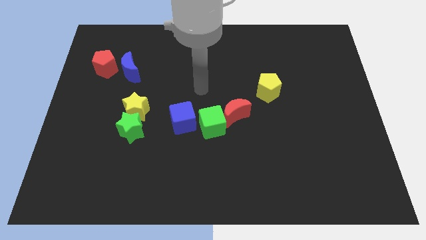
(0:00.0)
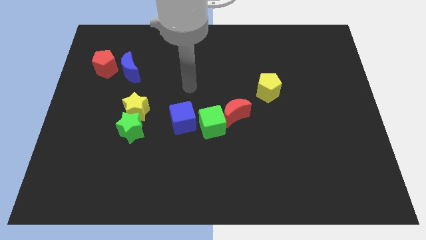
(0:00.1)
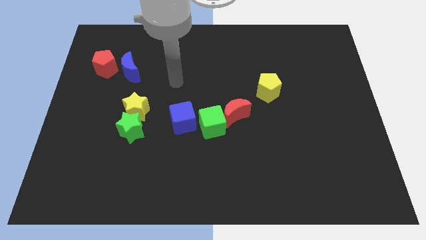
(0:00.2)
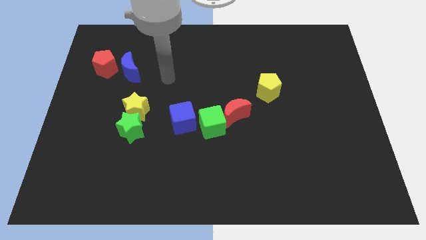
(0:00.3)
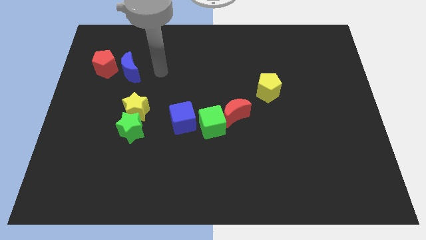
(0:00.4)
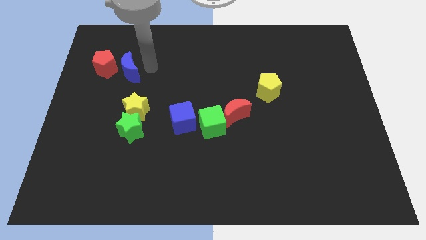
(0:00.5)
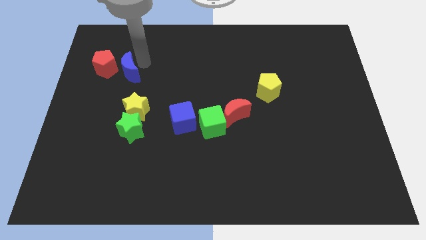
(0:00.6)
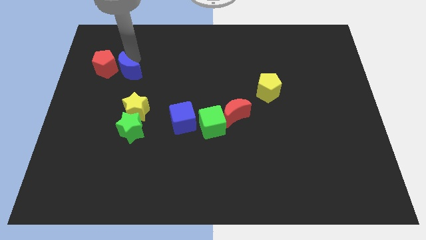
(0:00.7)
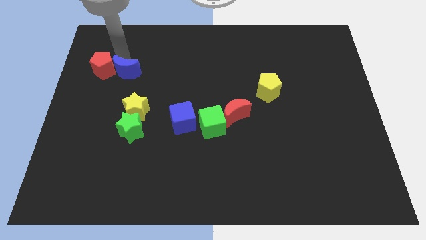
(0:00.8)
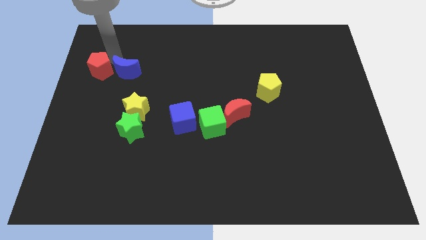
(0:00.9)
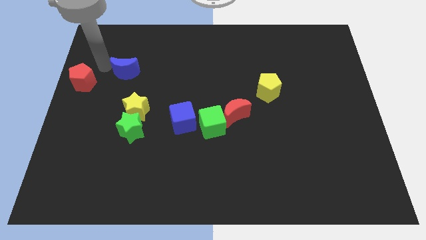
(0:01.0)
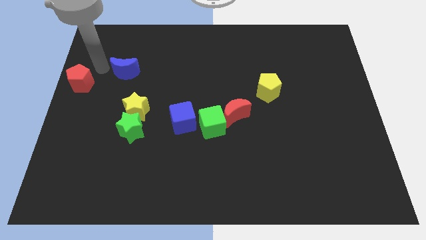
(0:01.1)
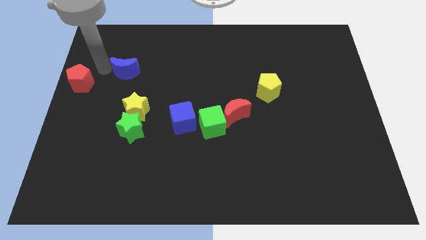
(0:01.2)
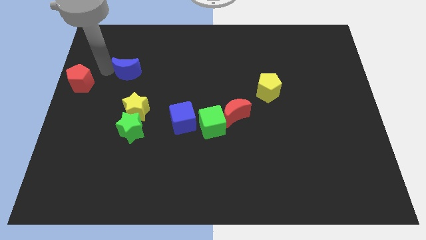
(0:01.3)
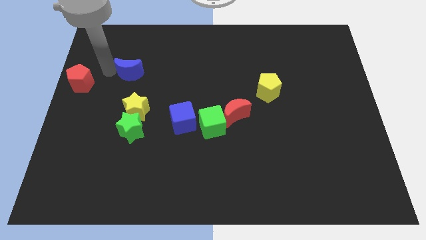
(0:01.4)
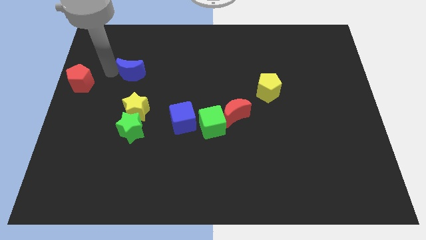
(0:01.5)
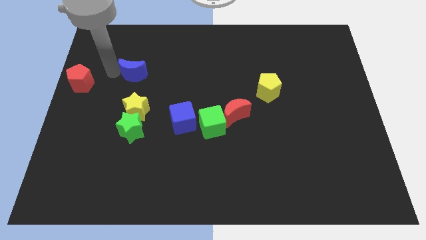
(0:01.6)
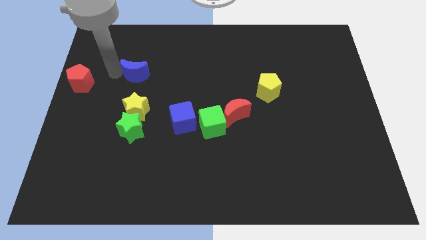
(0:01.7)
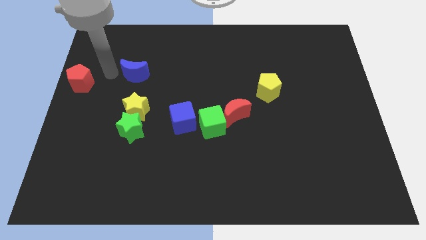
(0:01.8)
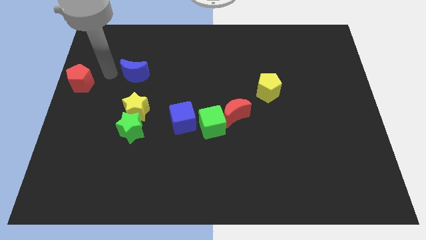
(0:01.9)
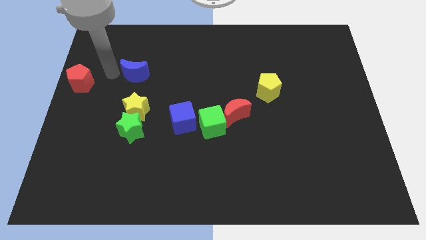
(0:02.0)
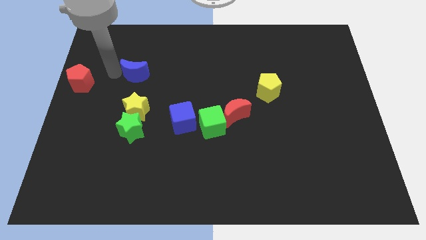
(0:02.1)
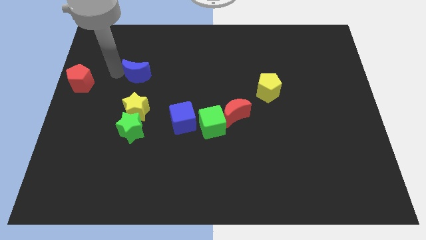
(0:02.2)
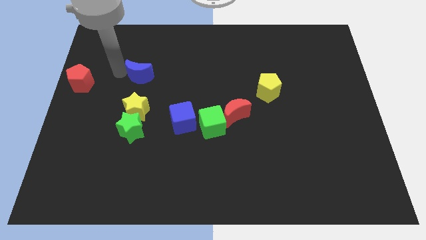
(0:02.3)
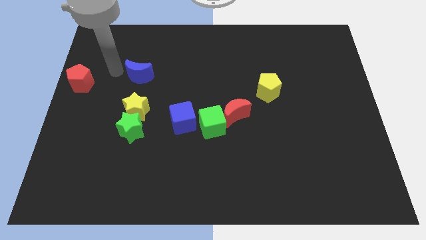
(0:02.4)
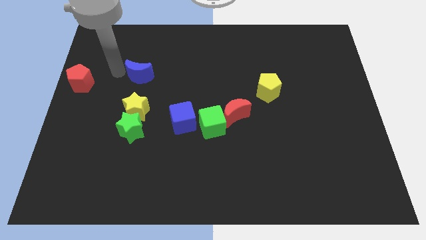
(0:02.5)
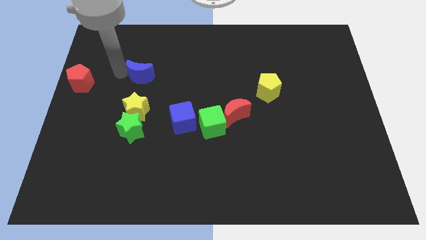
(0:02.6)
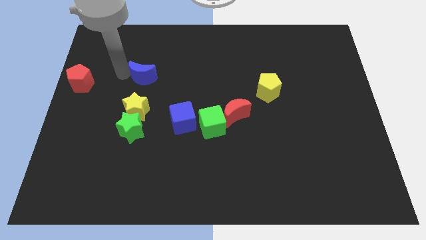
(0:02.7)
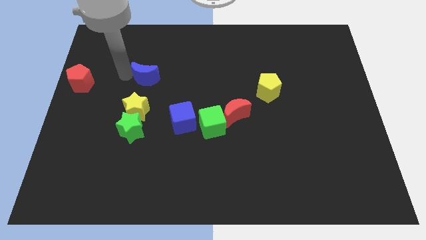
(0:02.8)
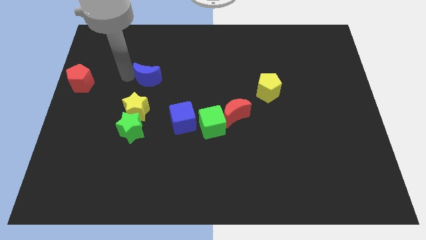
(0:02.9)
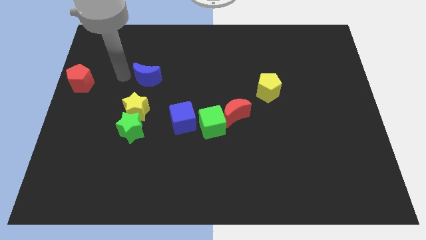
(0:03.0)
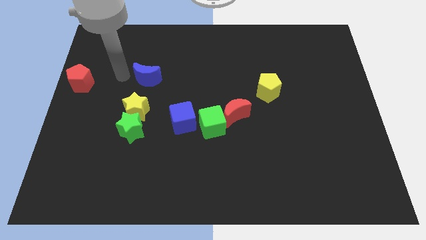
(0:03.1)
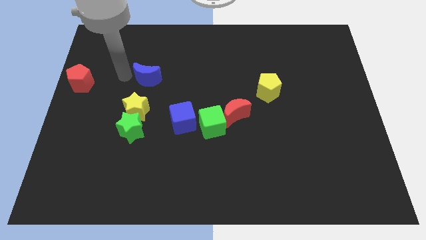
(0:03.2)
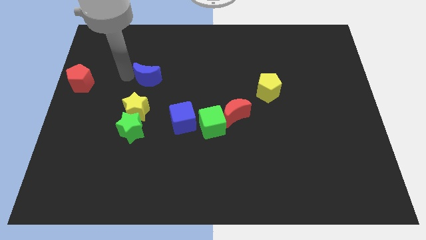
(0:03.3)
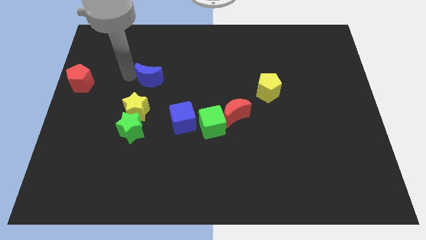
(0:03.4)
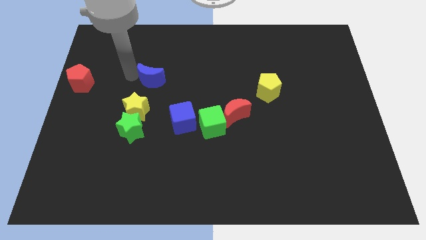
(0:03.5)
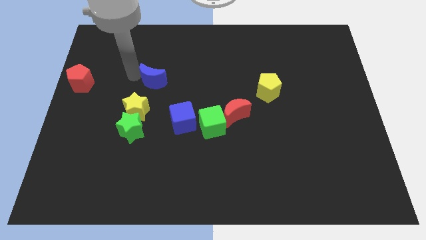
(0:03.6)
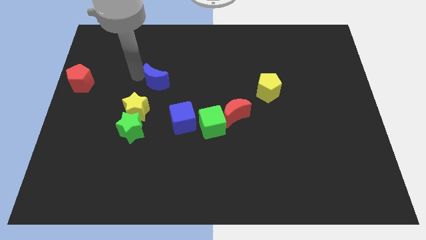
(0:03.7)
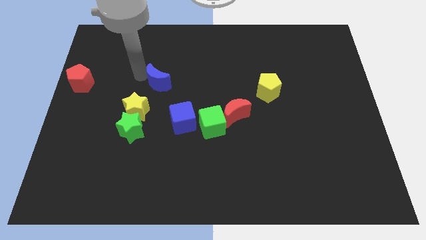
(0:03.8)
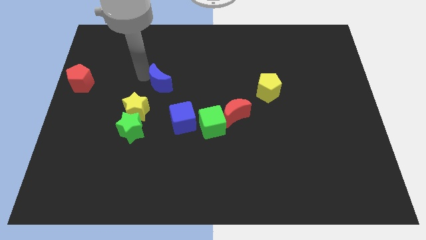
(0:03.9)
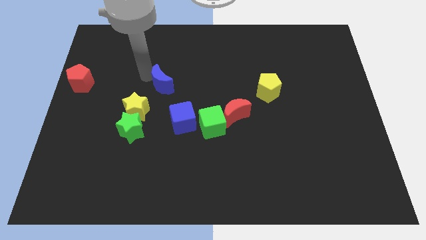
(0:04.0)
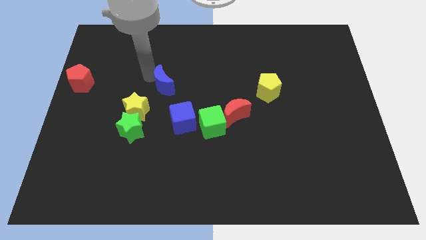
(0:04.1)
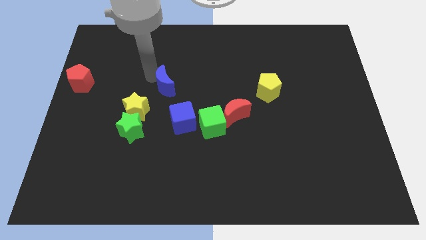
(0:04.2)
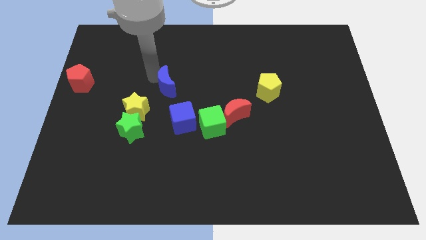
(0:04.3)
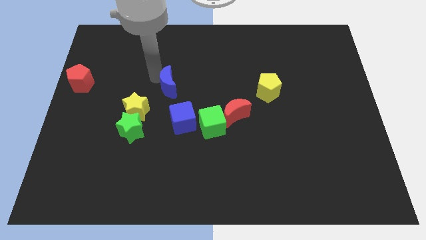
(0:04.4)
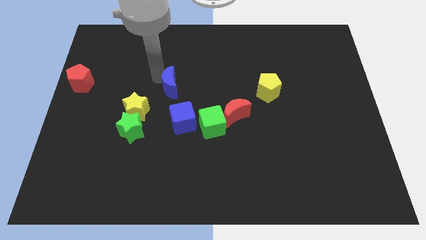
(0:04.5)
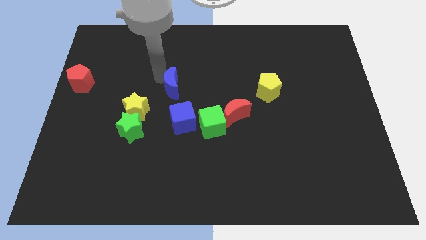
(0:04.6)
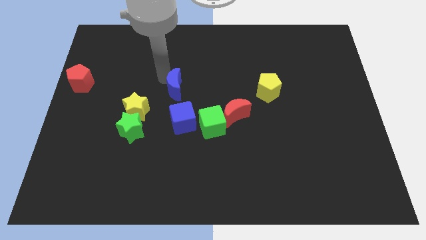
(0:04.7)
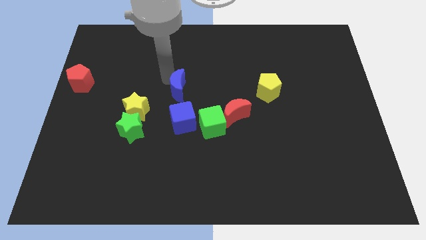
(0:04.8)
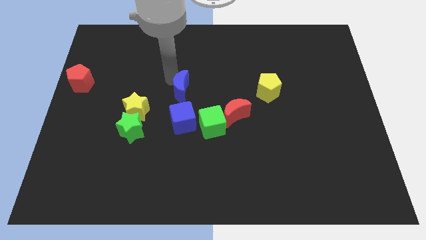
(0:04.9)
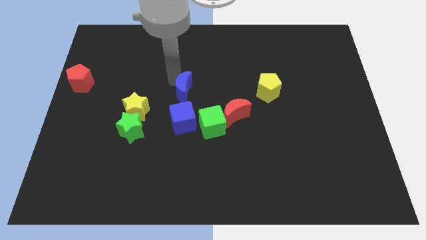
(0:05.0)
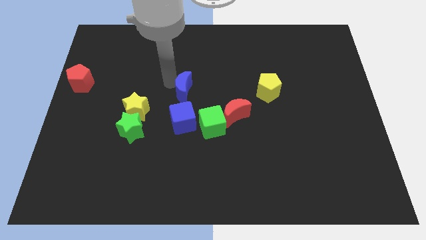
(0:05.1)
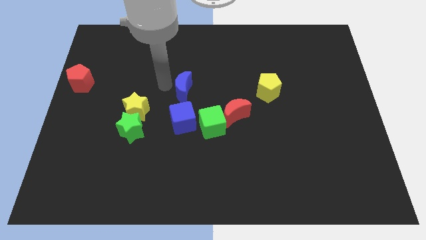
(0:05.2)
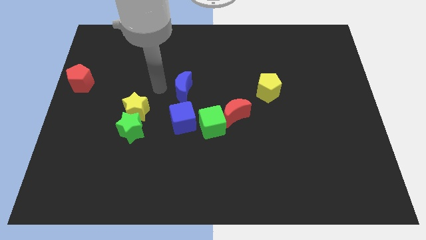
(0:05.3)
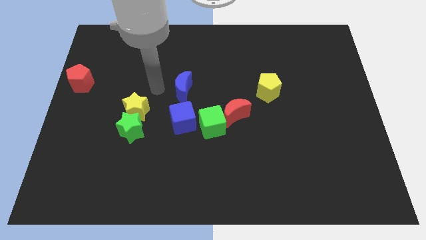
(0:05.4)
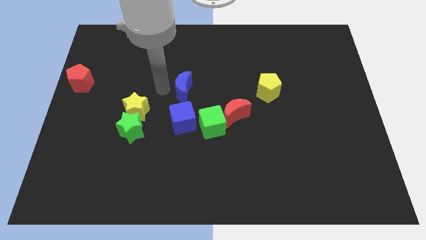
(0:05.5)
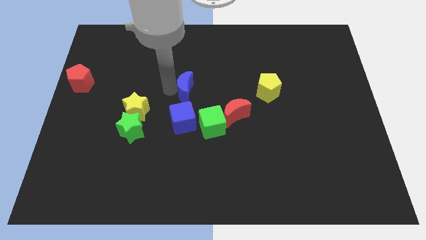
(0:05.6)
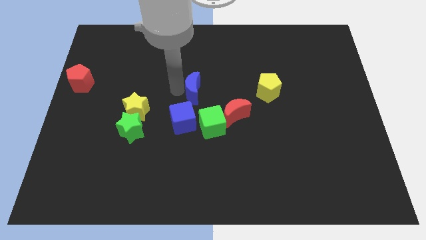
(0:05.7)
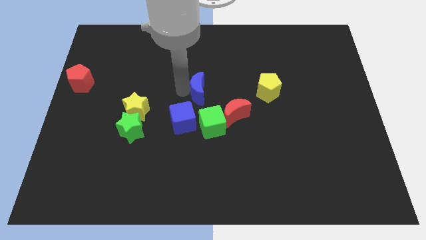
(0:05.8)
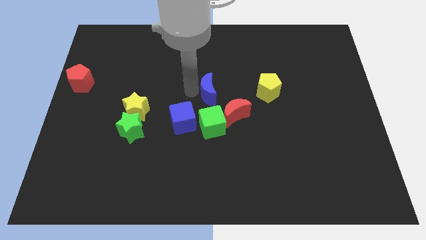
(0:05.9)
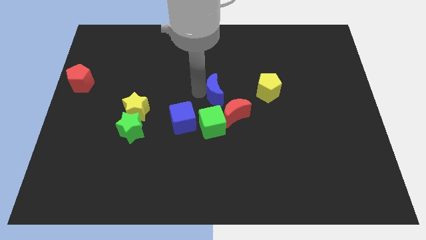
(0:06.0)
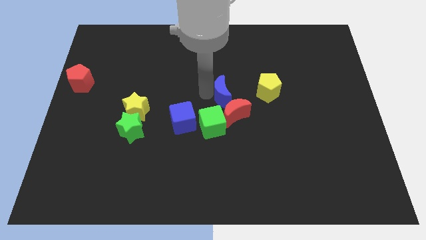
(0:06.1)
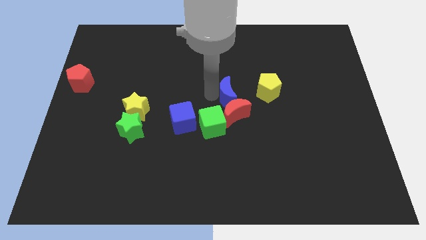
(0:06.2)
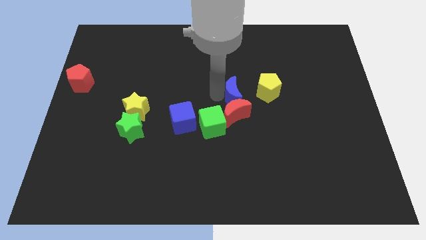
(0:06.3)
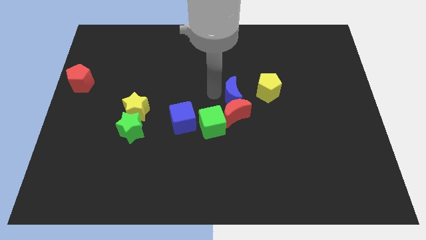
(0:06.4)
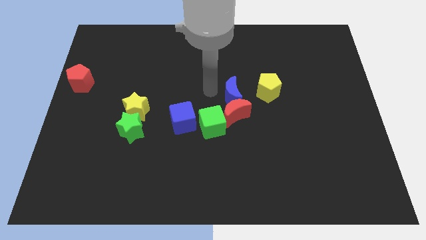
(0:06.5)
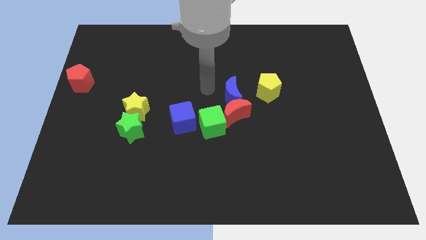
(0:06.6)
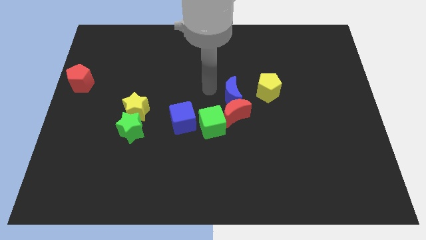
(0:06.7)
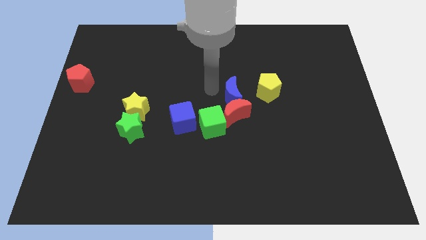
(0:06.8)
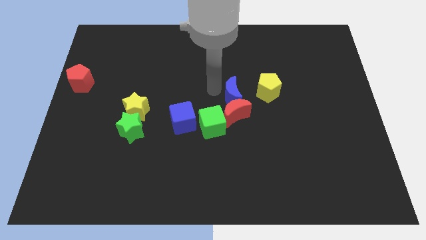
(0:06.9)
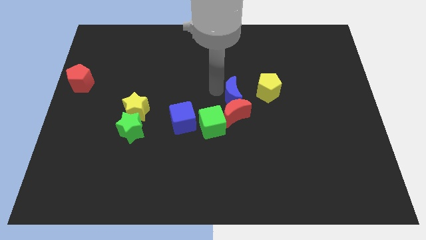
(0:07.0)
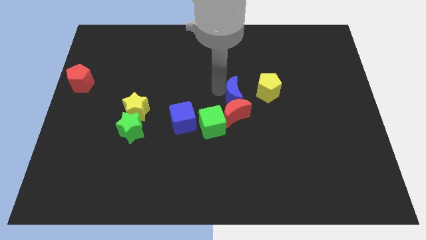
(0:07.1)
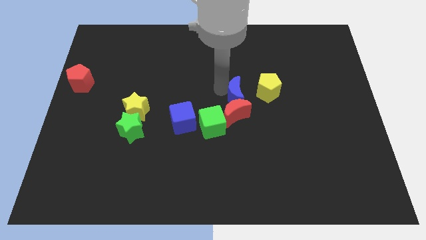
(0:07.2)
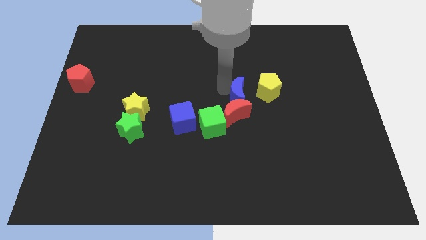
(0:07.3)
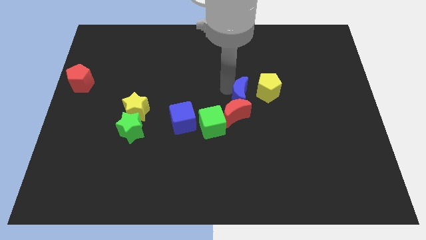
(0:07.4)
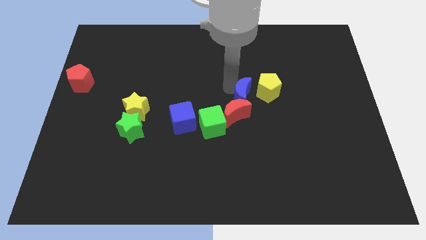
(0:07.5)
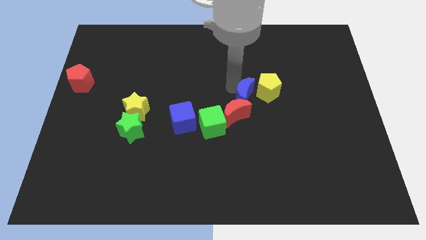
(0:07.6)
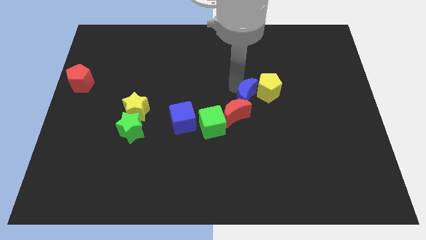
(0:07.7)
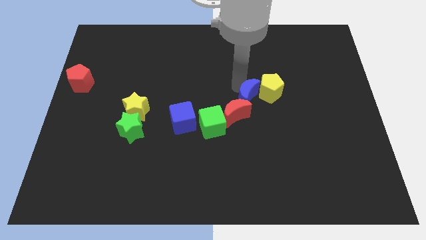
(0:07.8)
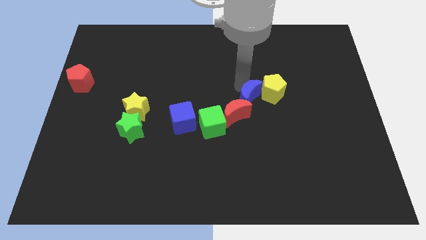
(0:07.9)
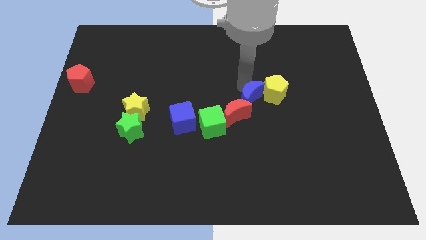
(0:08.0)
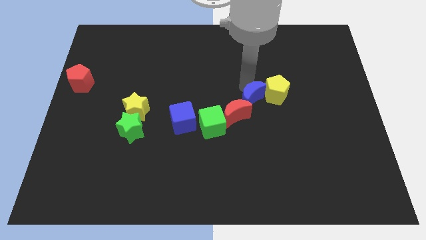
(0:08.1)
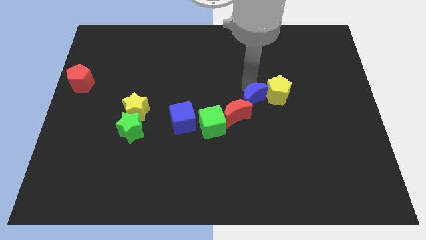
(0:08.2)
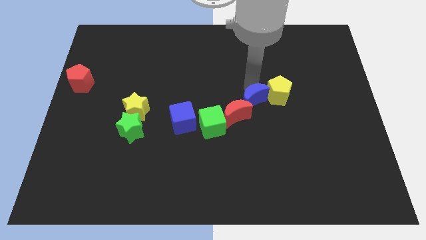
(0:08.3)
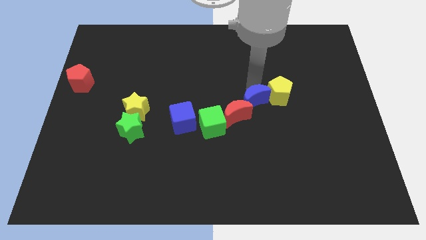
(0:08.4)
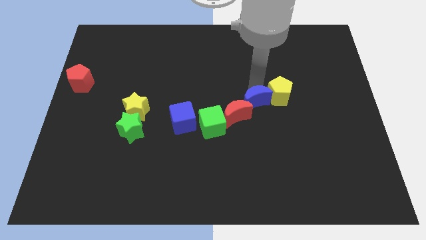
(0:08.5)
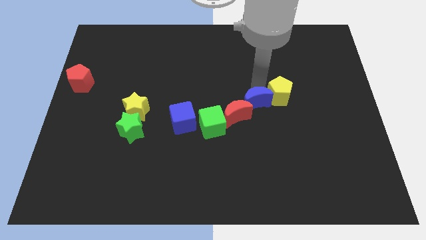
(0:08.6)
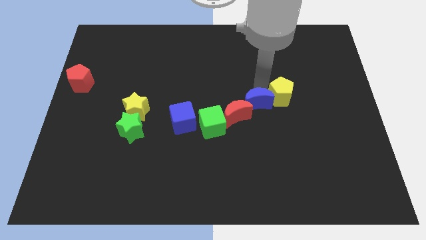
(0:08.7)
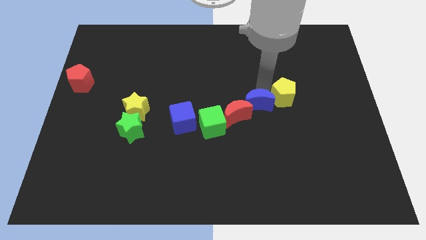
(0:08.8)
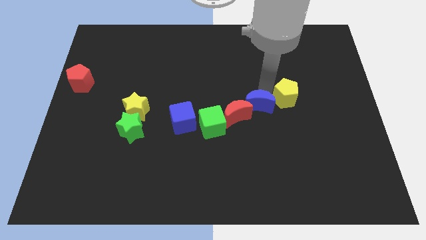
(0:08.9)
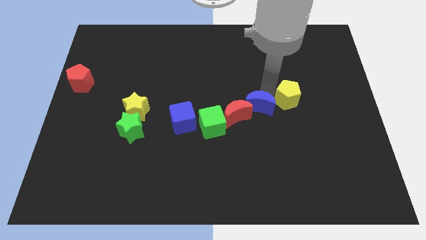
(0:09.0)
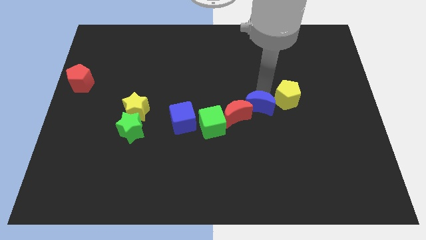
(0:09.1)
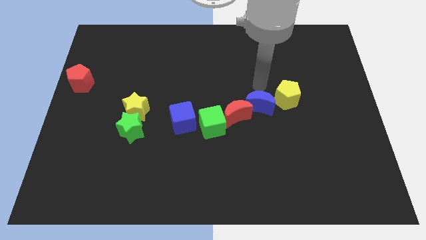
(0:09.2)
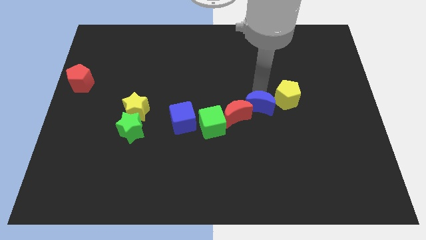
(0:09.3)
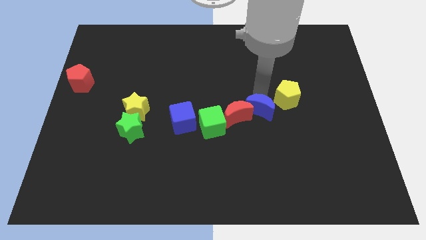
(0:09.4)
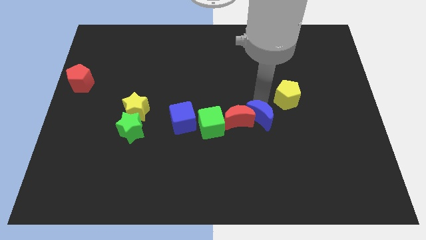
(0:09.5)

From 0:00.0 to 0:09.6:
put the blue moon diagonally down and to the right of the red moon
